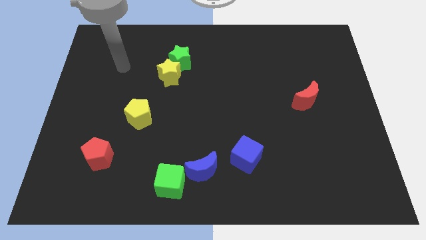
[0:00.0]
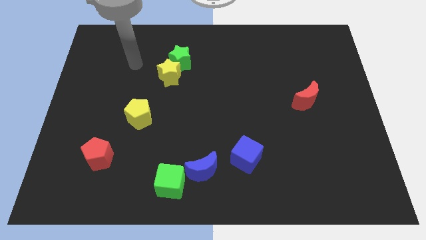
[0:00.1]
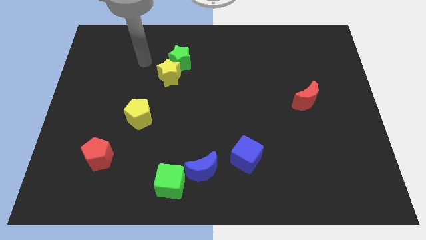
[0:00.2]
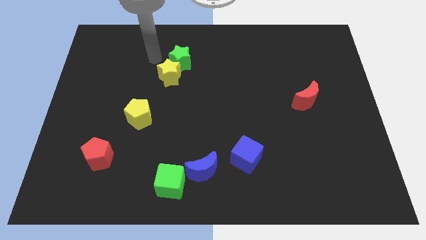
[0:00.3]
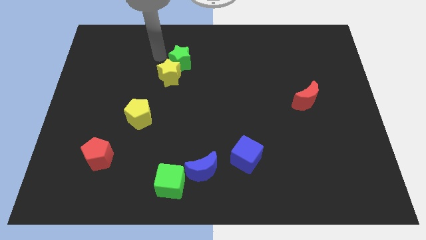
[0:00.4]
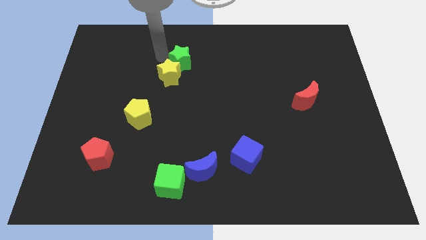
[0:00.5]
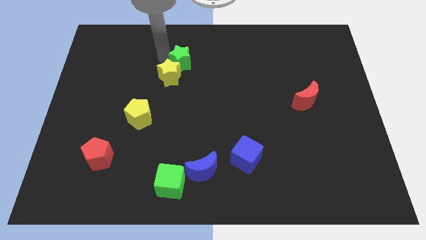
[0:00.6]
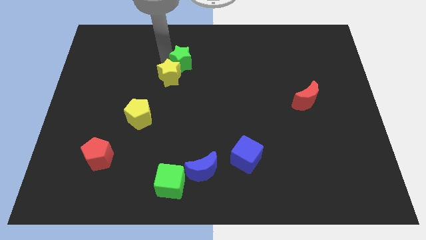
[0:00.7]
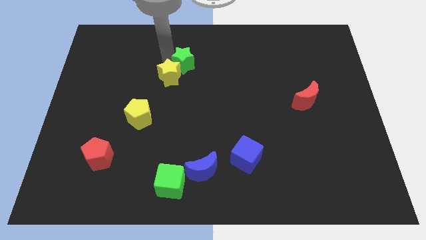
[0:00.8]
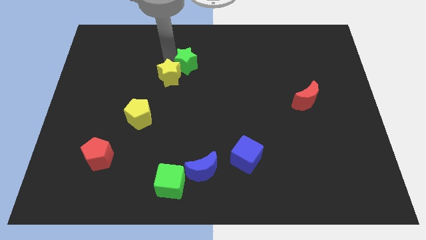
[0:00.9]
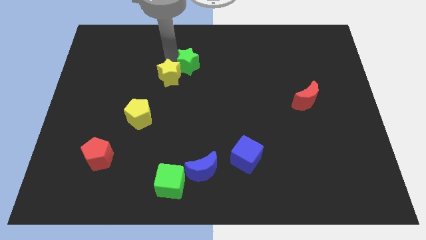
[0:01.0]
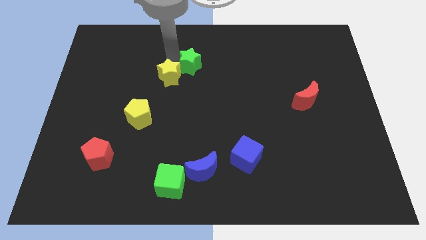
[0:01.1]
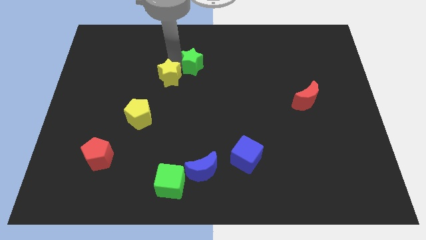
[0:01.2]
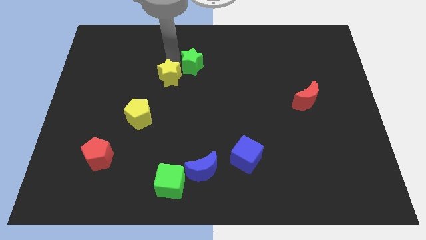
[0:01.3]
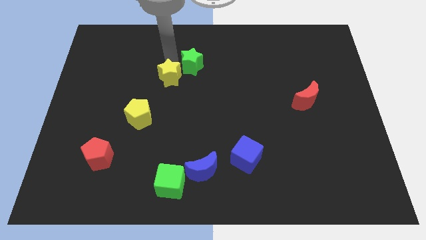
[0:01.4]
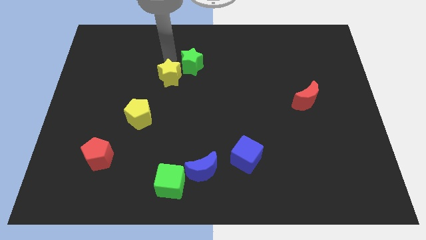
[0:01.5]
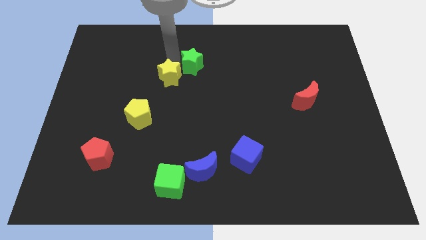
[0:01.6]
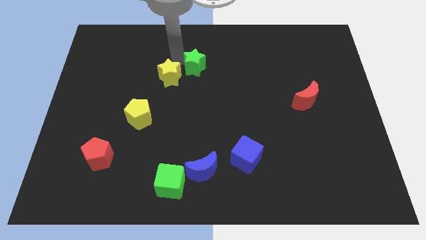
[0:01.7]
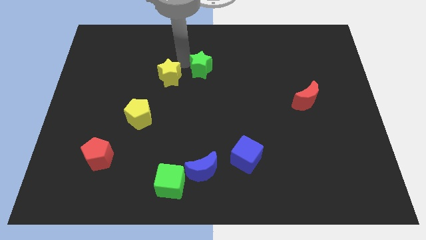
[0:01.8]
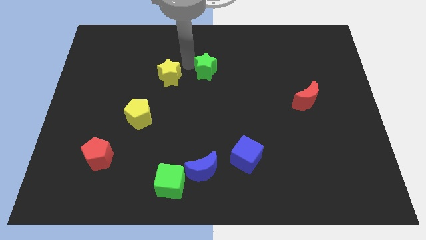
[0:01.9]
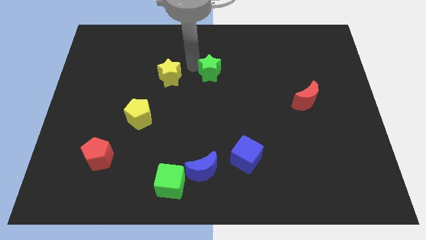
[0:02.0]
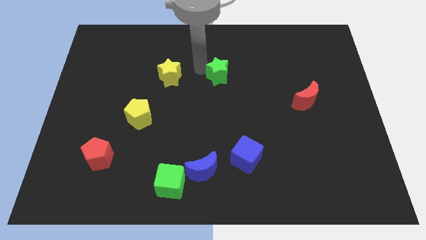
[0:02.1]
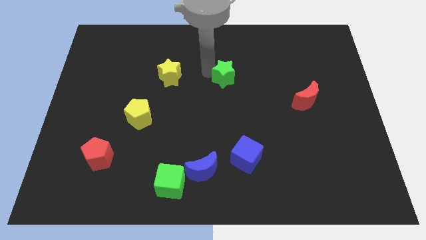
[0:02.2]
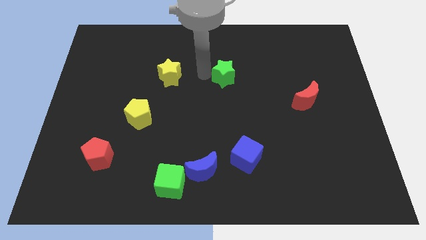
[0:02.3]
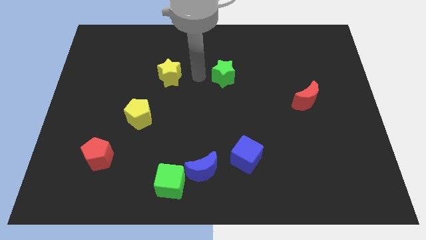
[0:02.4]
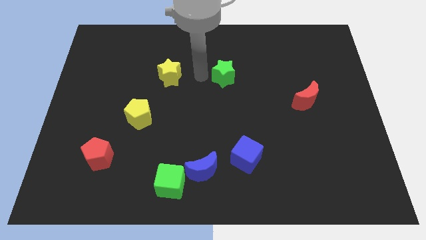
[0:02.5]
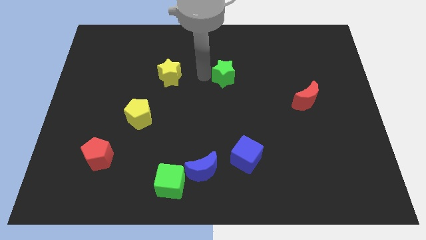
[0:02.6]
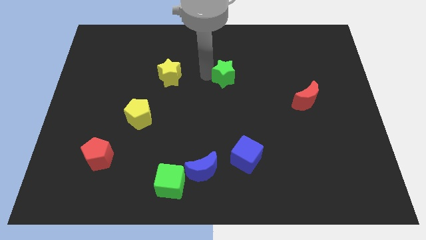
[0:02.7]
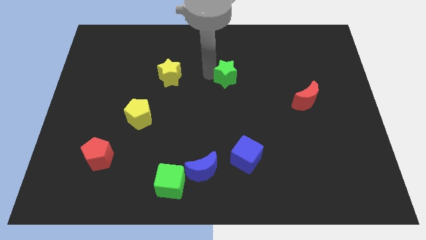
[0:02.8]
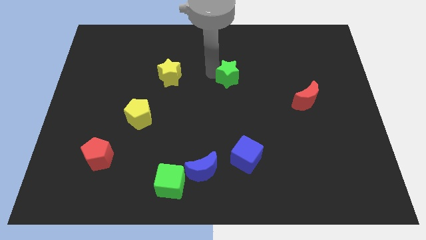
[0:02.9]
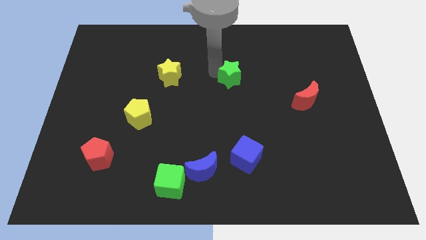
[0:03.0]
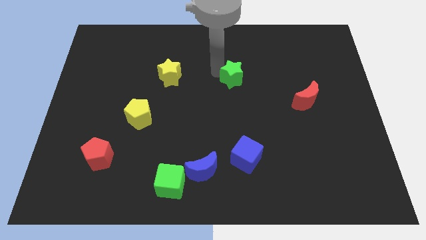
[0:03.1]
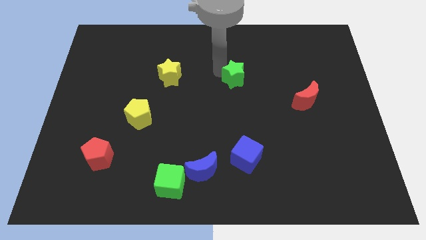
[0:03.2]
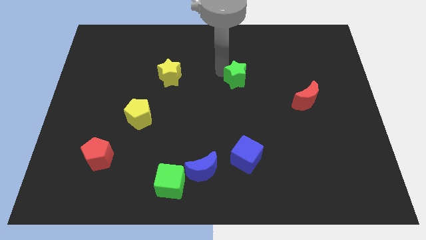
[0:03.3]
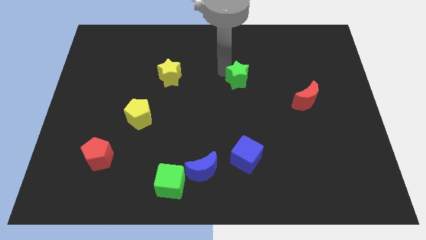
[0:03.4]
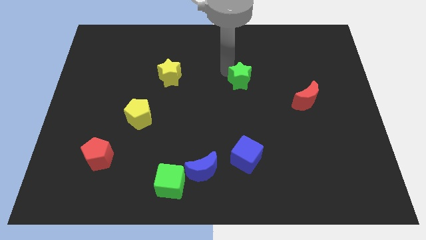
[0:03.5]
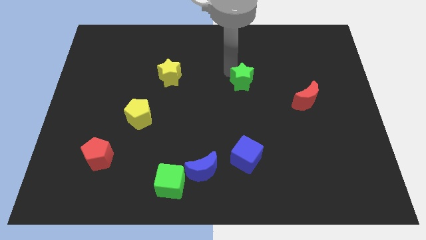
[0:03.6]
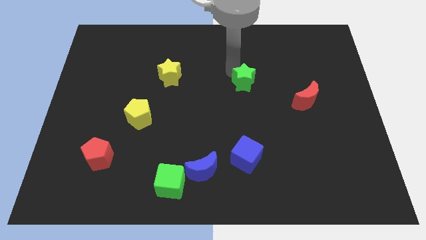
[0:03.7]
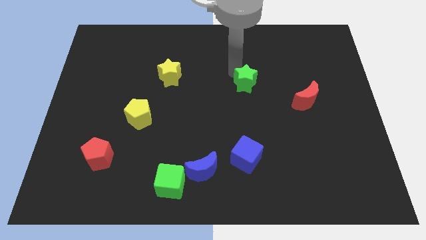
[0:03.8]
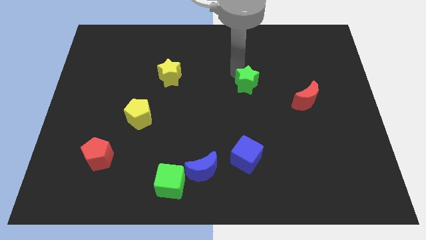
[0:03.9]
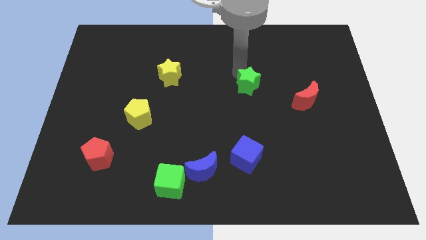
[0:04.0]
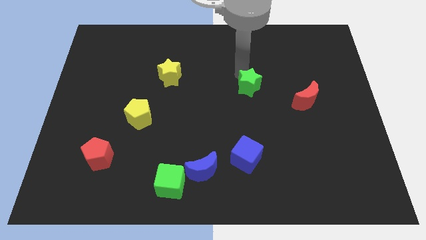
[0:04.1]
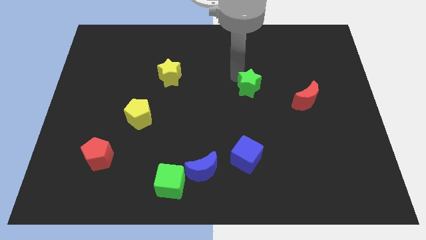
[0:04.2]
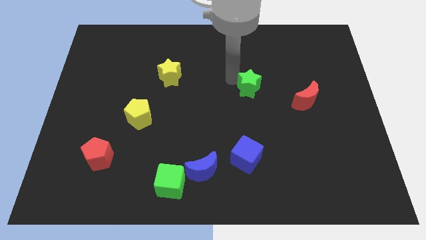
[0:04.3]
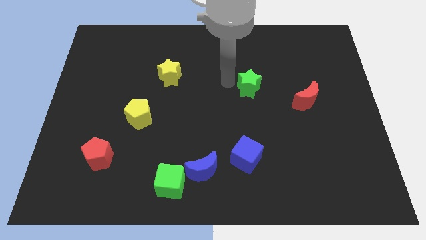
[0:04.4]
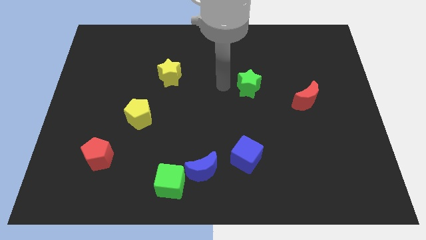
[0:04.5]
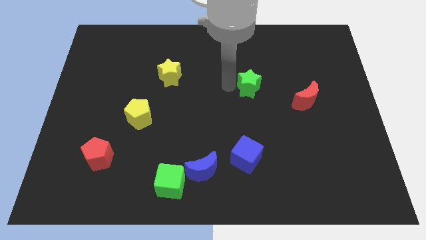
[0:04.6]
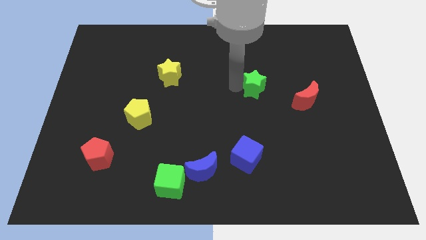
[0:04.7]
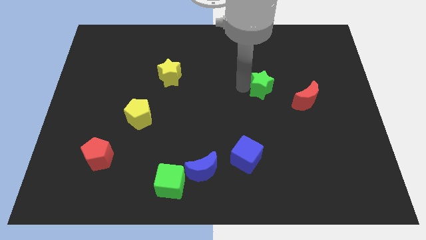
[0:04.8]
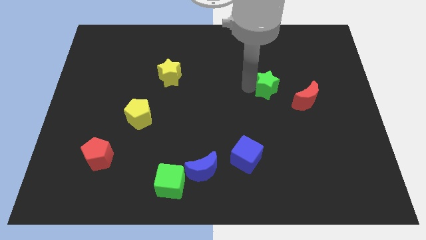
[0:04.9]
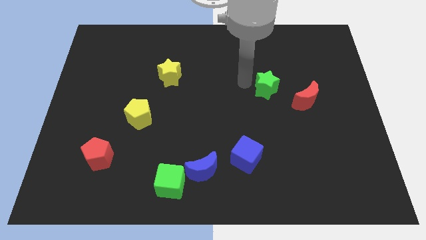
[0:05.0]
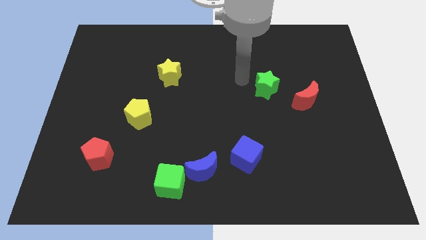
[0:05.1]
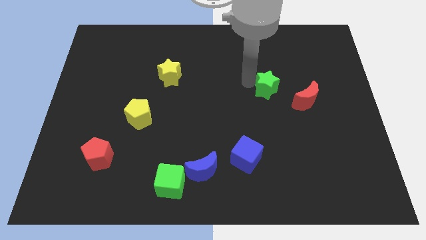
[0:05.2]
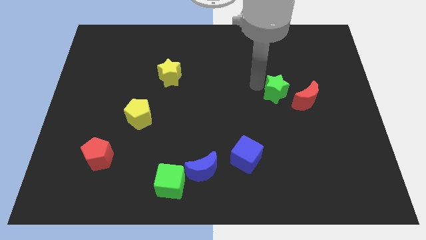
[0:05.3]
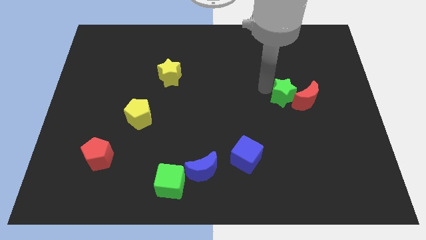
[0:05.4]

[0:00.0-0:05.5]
push the green star towards the red moon

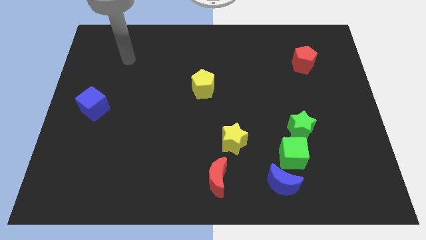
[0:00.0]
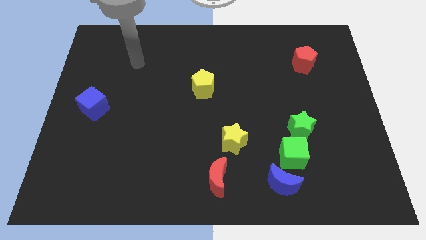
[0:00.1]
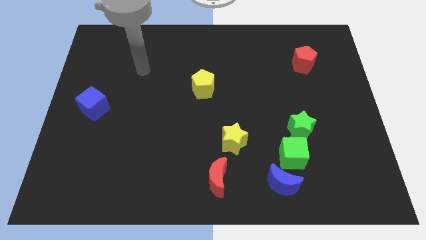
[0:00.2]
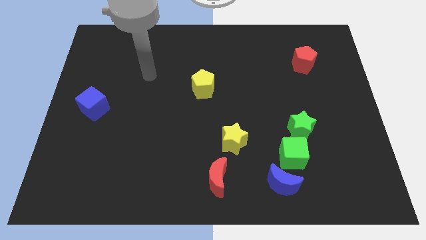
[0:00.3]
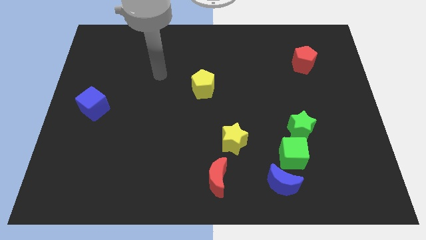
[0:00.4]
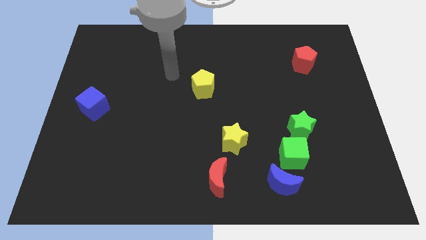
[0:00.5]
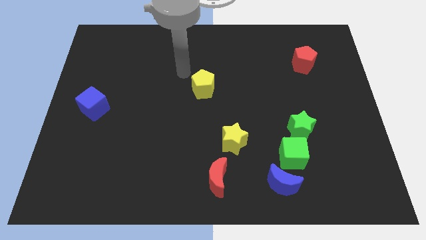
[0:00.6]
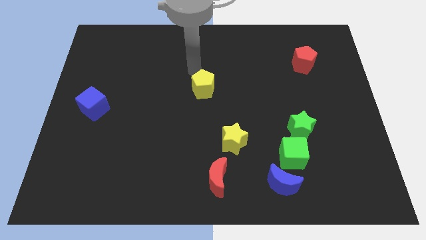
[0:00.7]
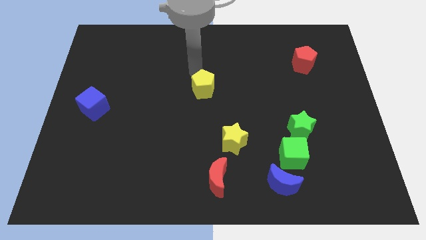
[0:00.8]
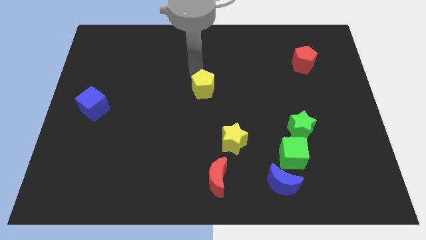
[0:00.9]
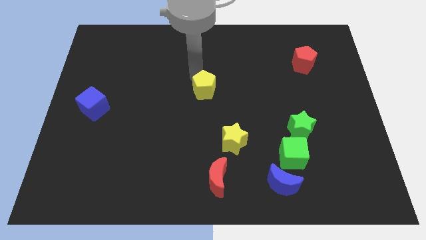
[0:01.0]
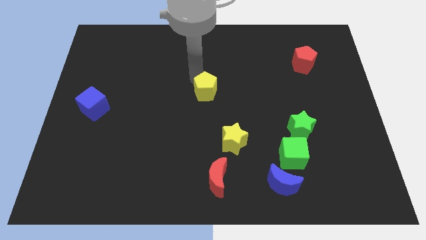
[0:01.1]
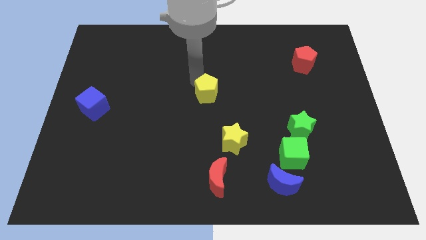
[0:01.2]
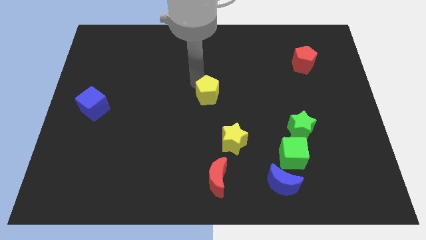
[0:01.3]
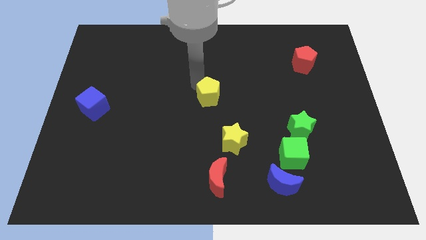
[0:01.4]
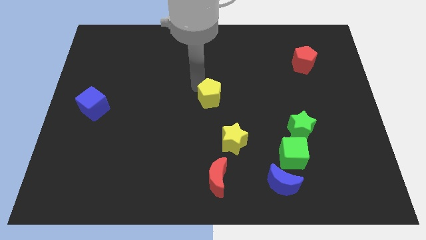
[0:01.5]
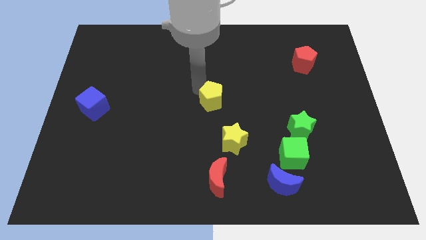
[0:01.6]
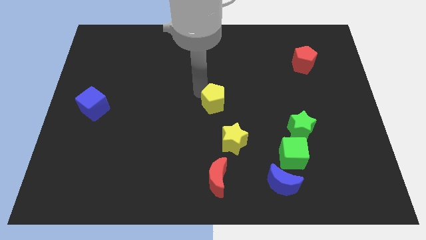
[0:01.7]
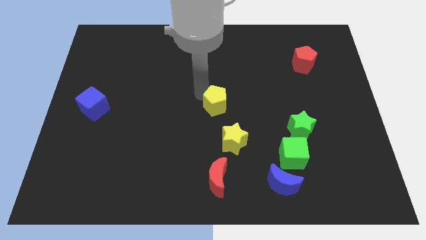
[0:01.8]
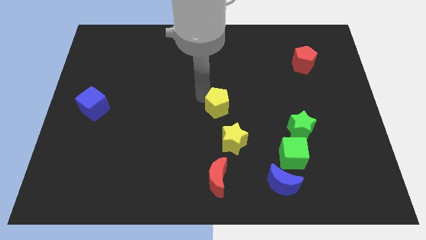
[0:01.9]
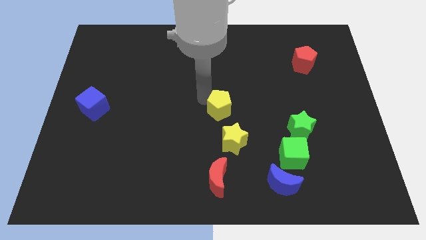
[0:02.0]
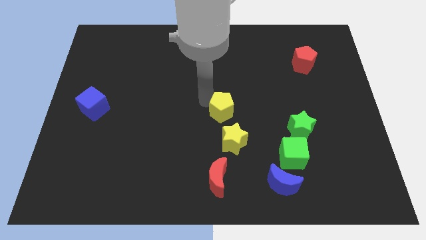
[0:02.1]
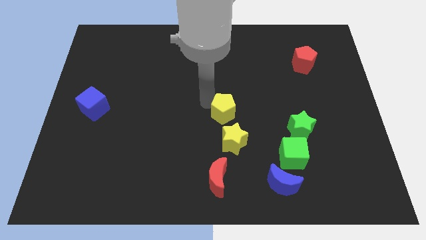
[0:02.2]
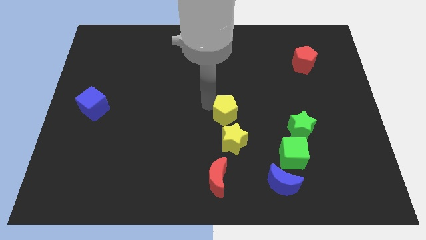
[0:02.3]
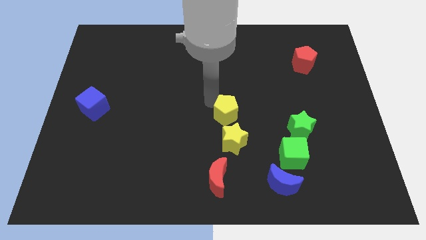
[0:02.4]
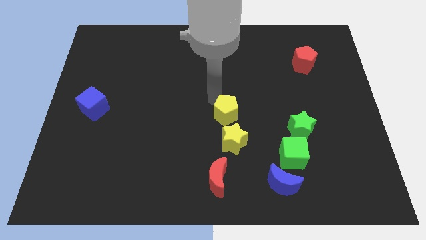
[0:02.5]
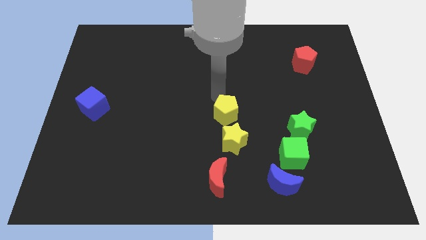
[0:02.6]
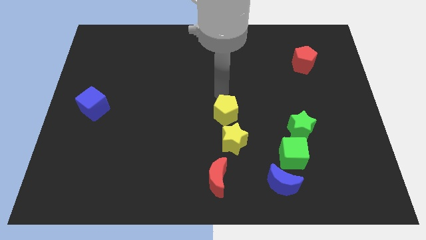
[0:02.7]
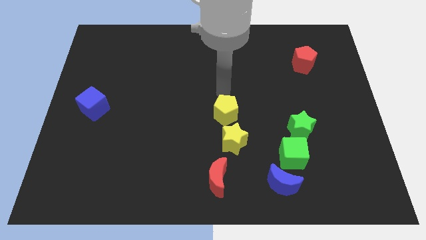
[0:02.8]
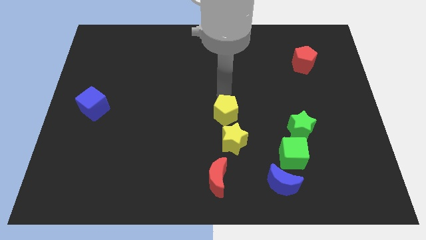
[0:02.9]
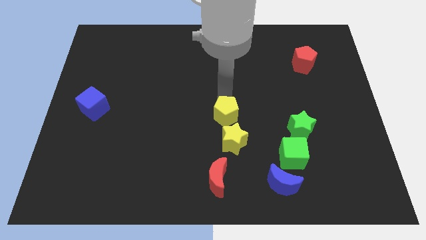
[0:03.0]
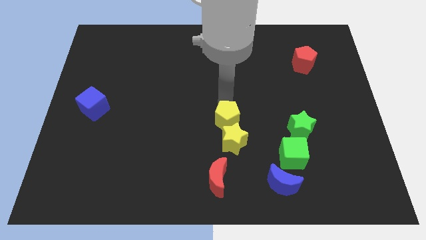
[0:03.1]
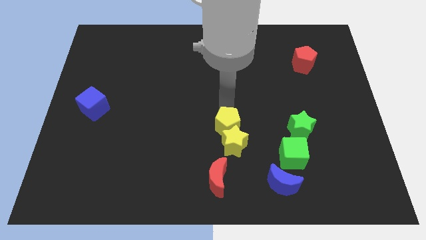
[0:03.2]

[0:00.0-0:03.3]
slide the yellow pentagon to the yellow star
